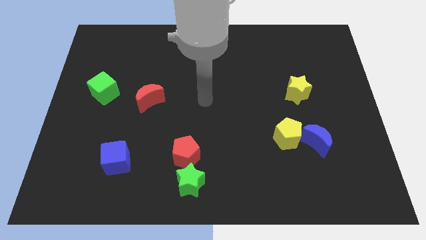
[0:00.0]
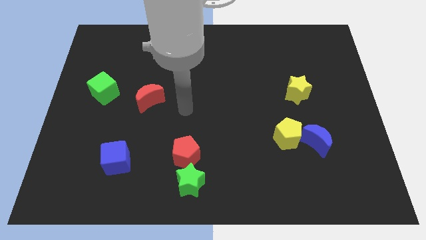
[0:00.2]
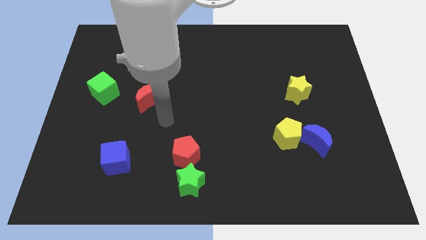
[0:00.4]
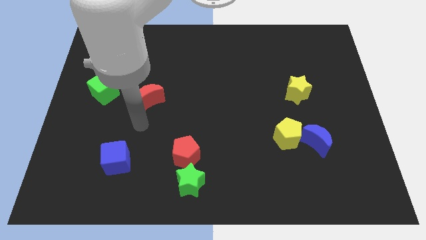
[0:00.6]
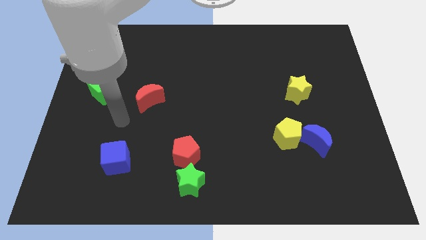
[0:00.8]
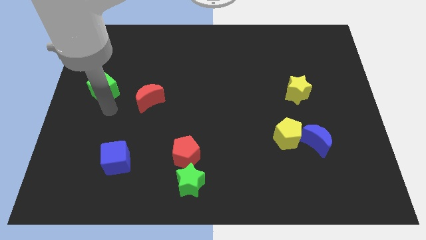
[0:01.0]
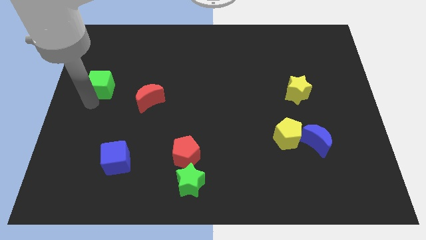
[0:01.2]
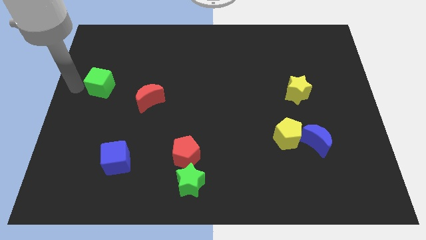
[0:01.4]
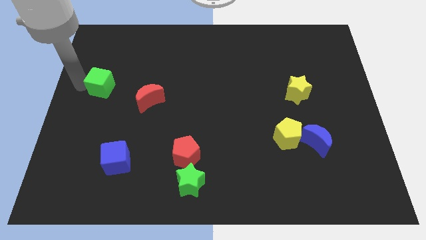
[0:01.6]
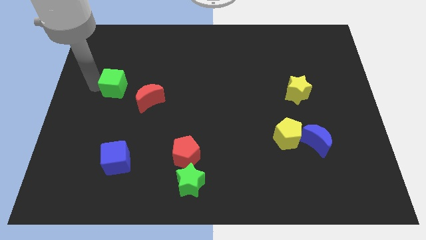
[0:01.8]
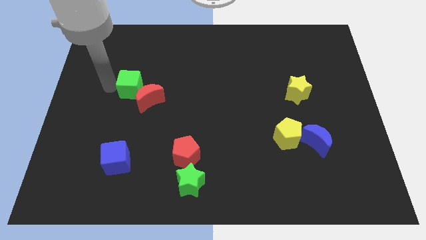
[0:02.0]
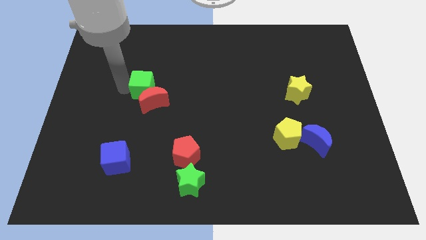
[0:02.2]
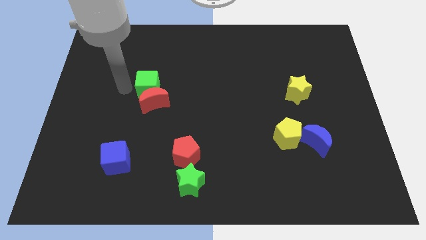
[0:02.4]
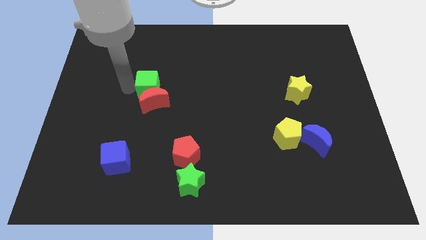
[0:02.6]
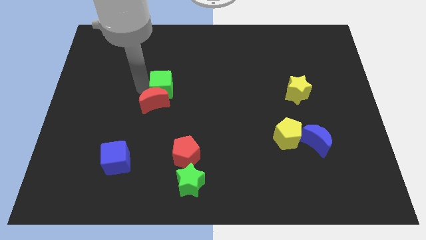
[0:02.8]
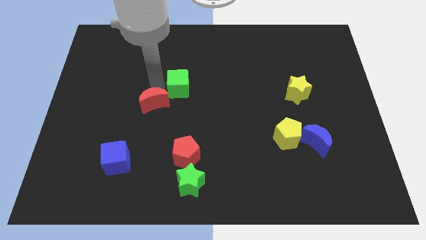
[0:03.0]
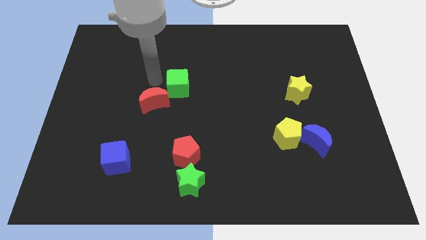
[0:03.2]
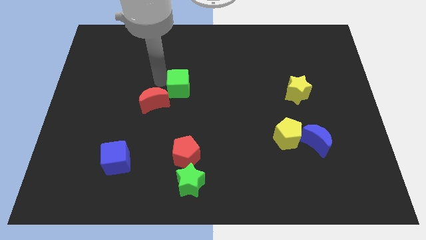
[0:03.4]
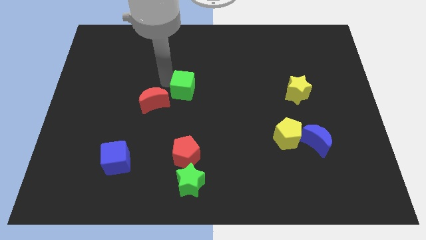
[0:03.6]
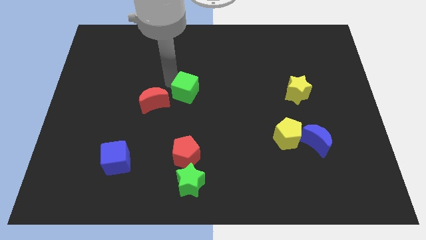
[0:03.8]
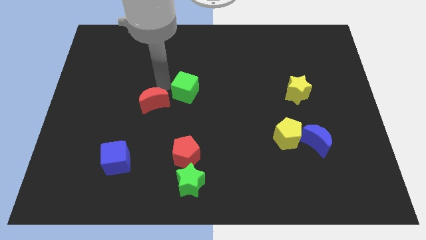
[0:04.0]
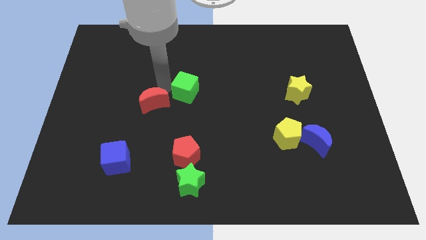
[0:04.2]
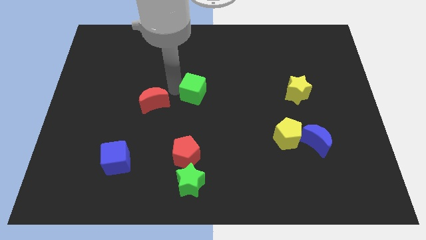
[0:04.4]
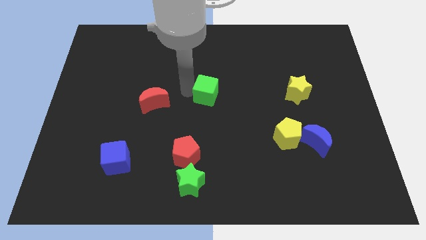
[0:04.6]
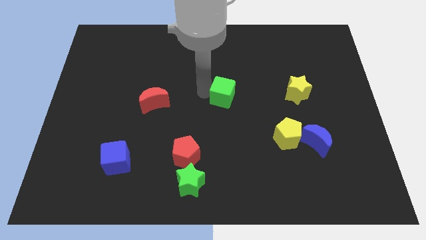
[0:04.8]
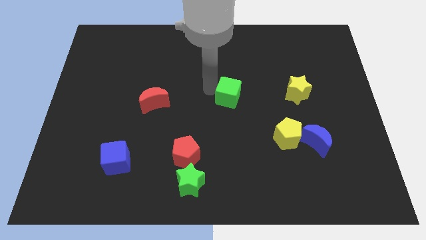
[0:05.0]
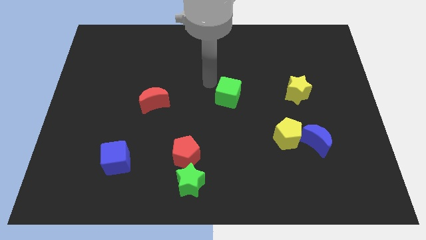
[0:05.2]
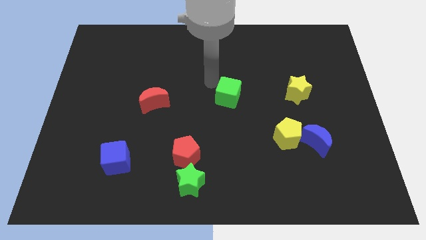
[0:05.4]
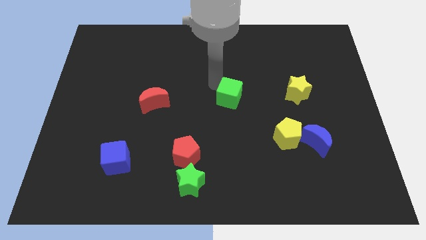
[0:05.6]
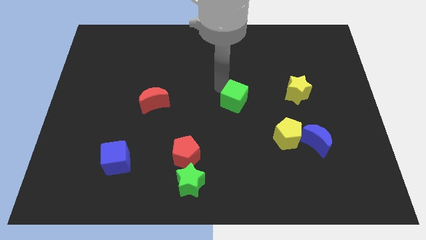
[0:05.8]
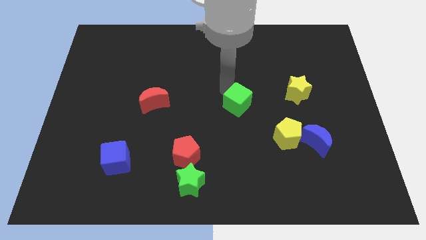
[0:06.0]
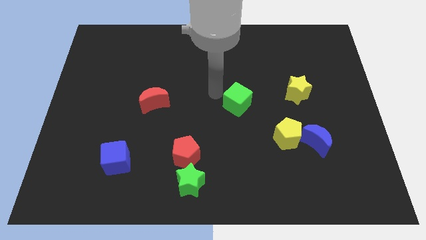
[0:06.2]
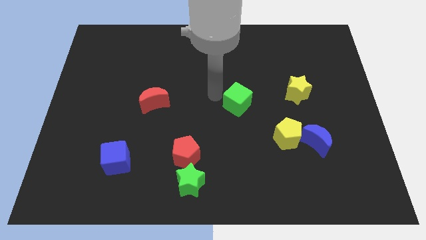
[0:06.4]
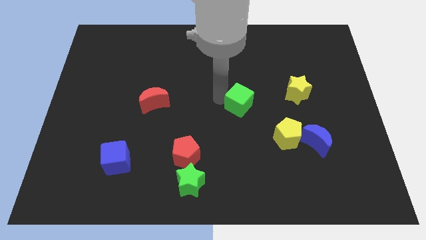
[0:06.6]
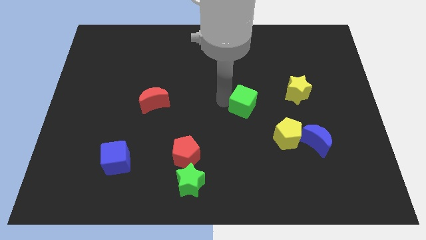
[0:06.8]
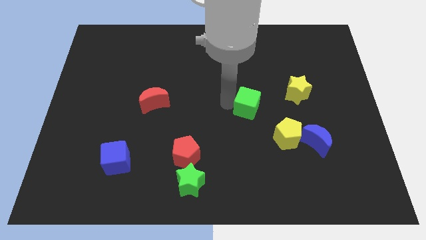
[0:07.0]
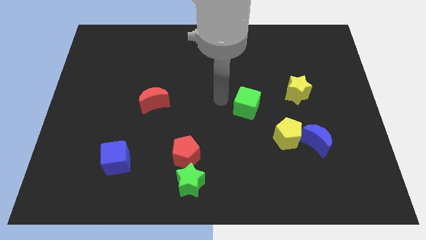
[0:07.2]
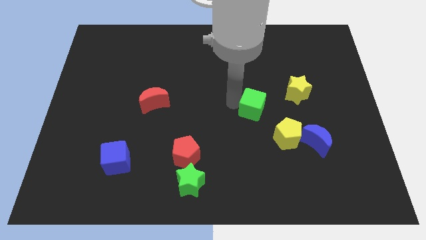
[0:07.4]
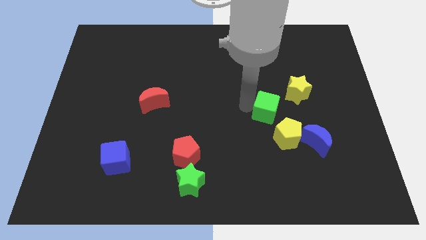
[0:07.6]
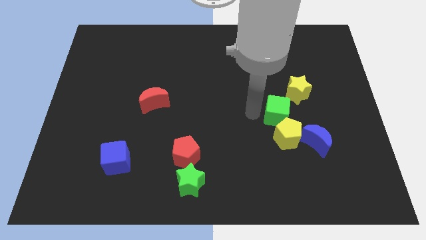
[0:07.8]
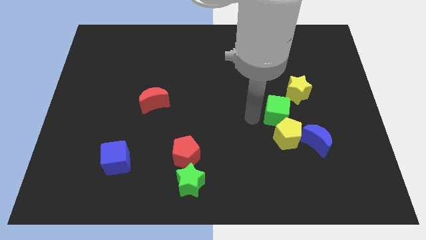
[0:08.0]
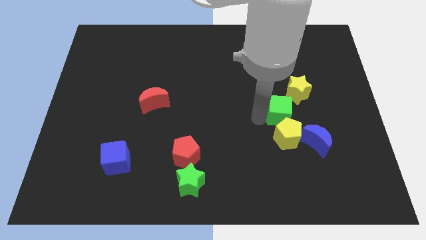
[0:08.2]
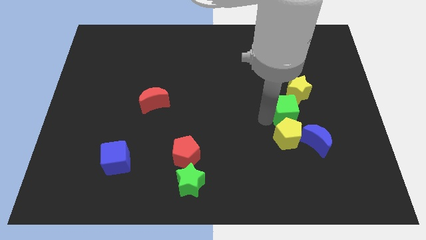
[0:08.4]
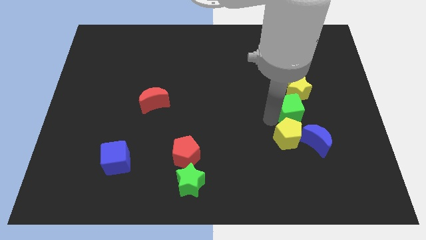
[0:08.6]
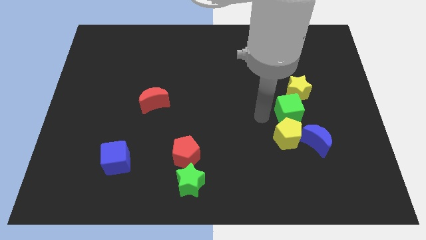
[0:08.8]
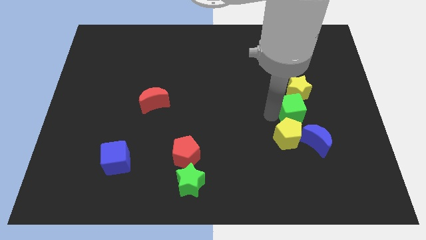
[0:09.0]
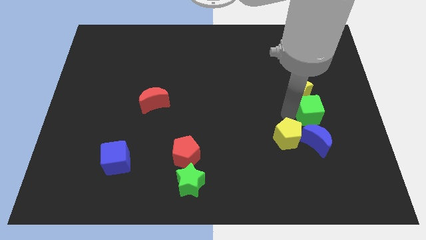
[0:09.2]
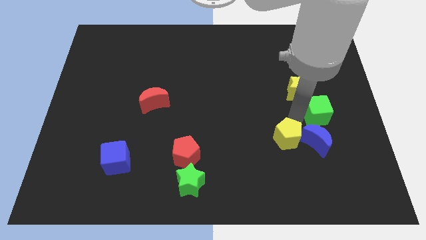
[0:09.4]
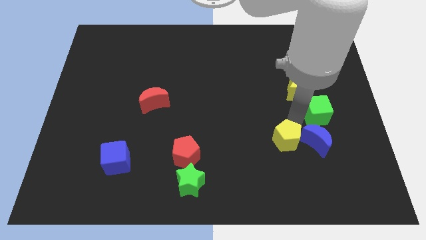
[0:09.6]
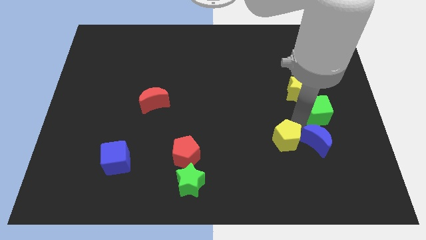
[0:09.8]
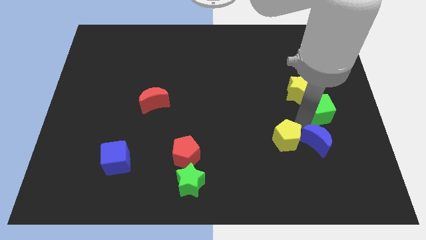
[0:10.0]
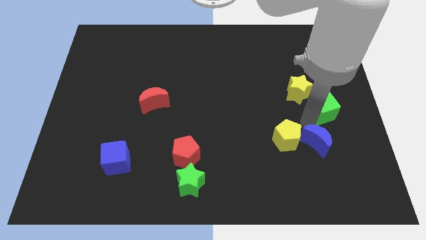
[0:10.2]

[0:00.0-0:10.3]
put the green cube to the right side of the board

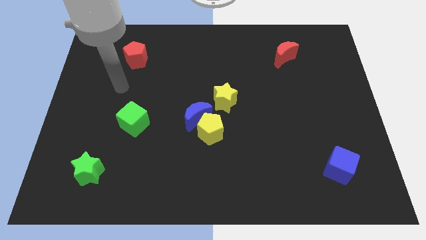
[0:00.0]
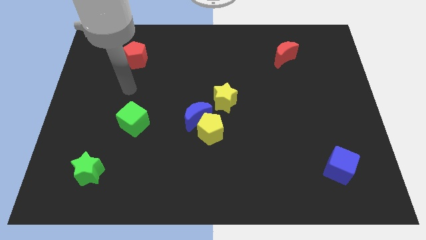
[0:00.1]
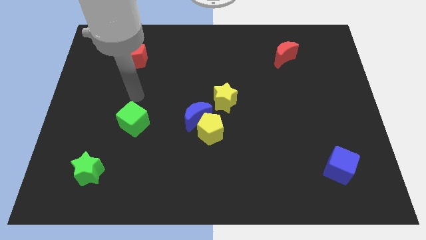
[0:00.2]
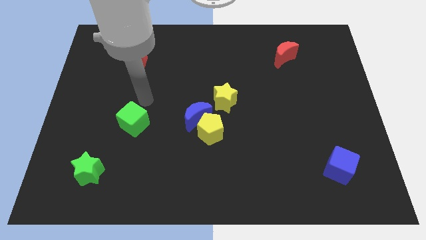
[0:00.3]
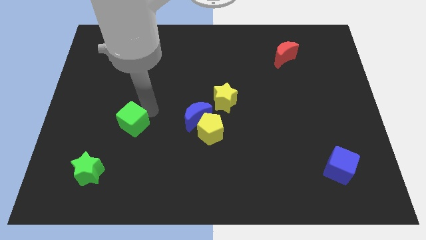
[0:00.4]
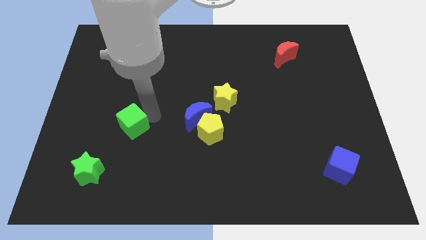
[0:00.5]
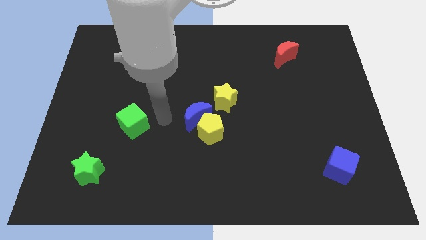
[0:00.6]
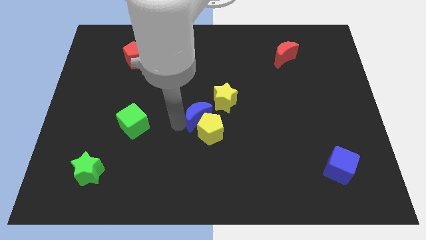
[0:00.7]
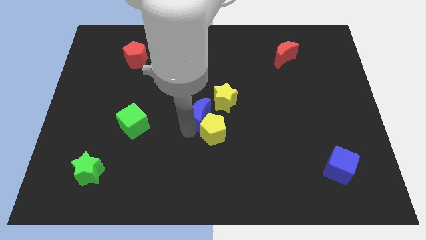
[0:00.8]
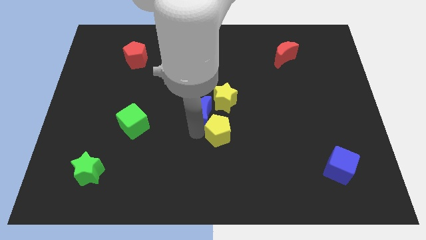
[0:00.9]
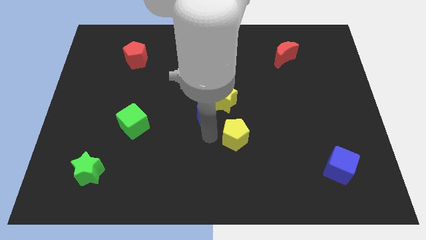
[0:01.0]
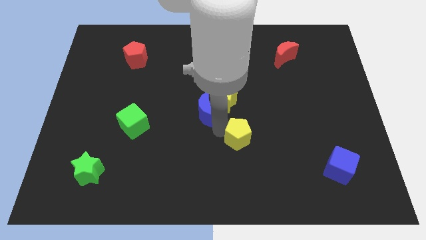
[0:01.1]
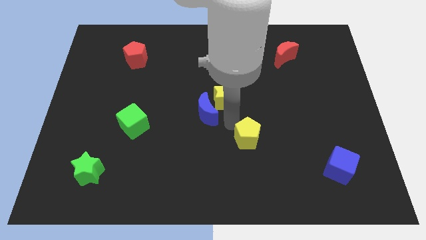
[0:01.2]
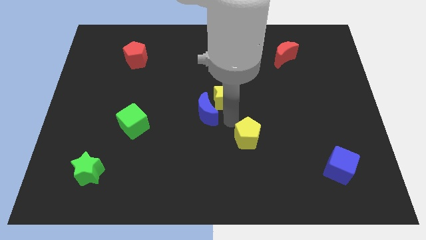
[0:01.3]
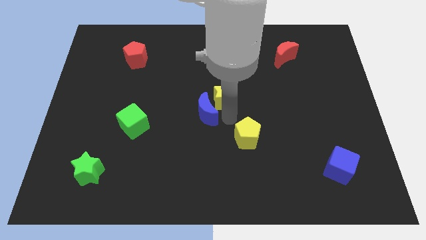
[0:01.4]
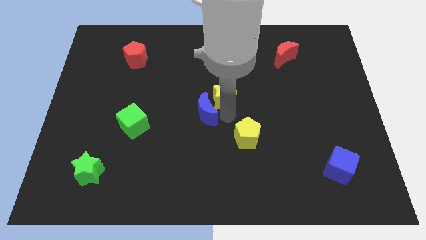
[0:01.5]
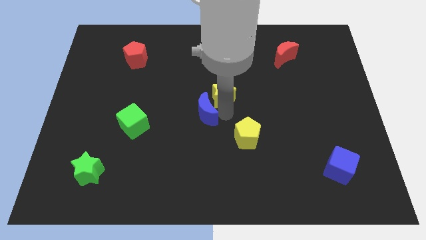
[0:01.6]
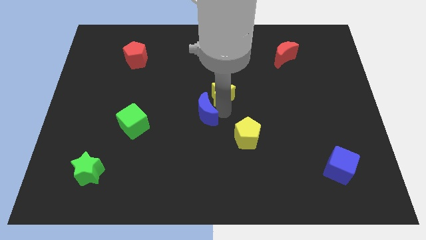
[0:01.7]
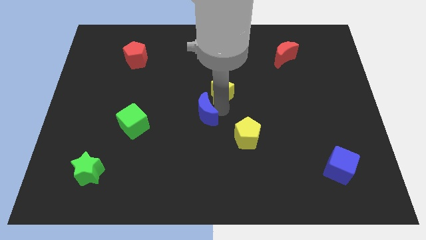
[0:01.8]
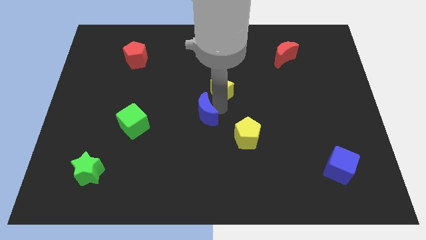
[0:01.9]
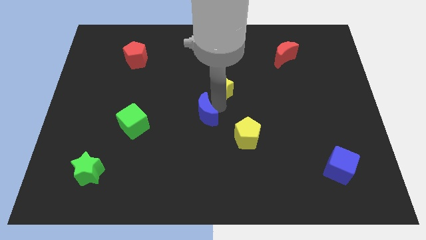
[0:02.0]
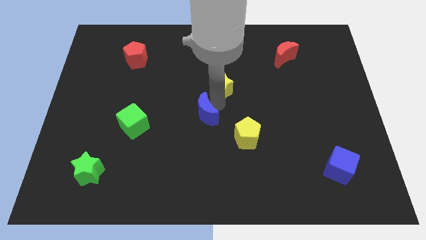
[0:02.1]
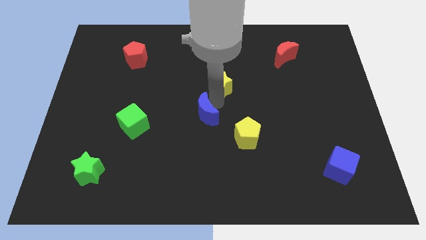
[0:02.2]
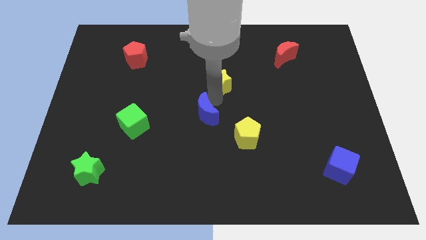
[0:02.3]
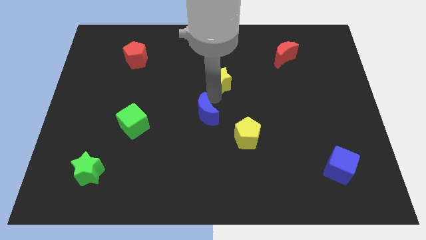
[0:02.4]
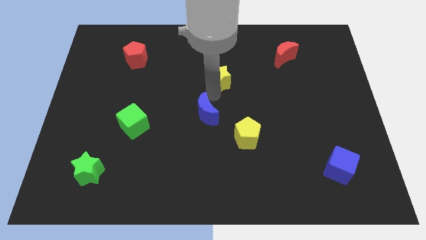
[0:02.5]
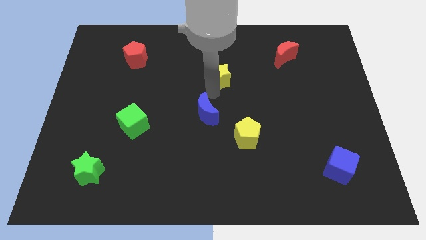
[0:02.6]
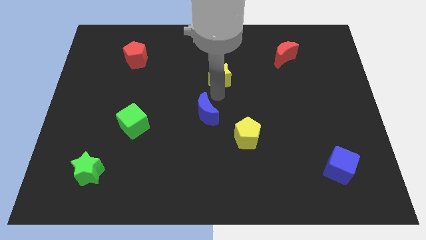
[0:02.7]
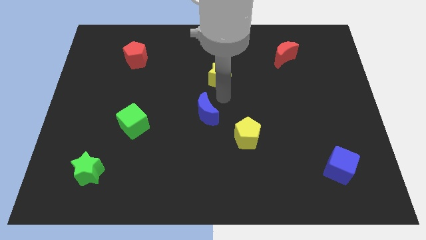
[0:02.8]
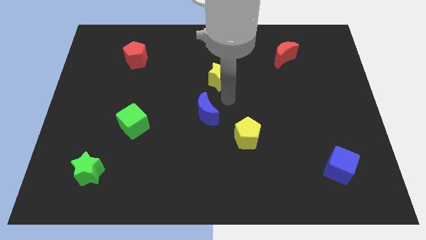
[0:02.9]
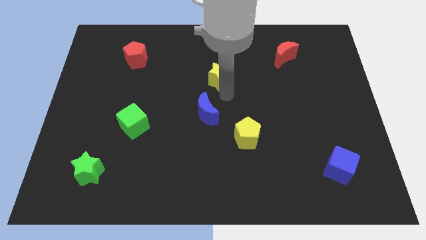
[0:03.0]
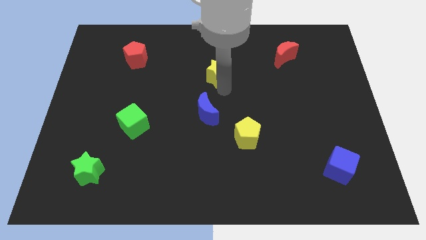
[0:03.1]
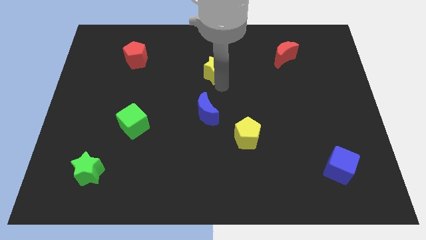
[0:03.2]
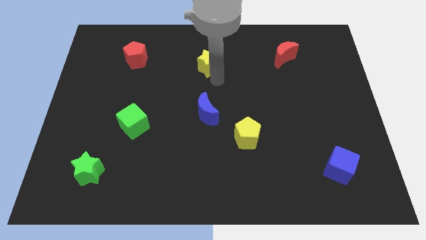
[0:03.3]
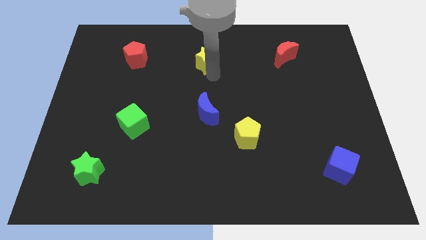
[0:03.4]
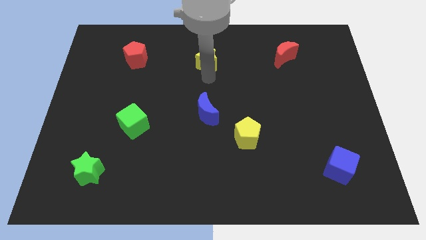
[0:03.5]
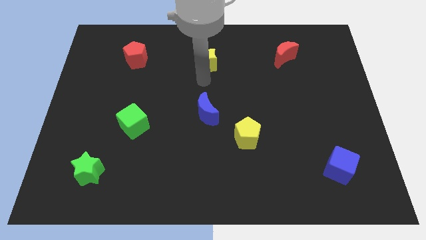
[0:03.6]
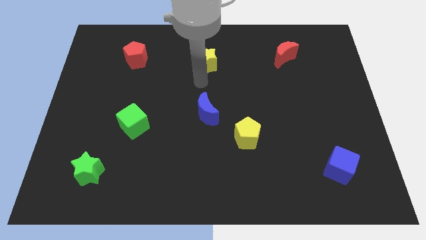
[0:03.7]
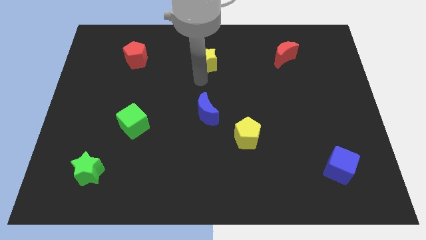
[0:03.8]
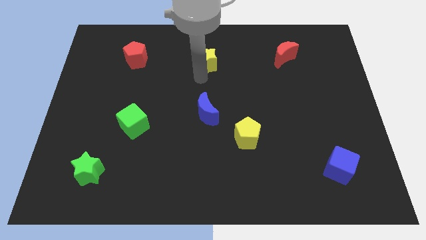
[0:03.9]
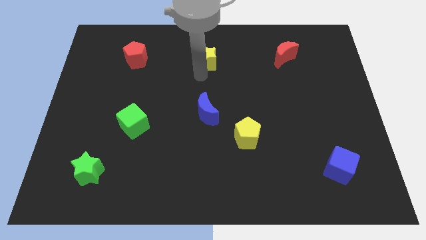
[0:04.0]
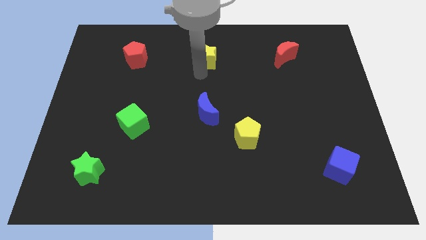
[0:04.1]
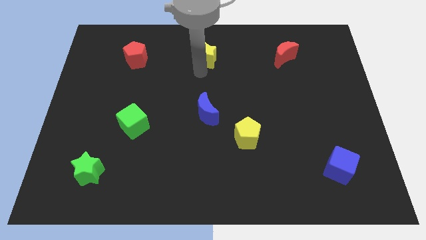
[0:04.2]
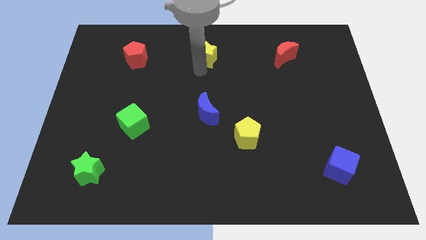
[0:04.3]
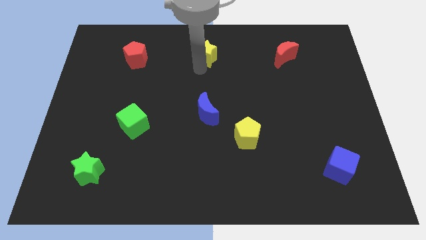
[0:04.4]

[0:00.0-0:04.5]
put the yellow star to the top side
